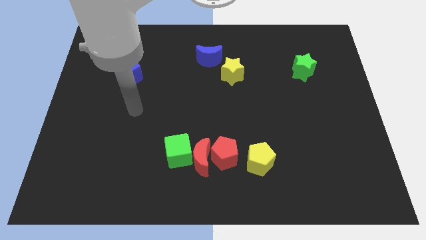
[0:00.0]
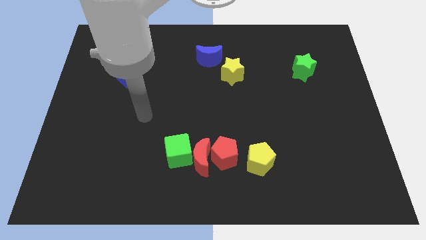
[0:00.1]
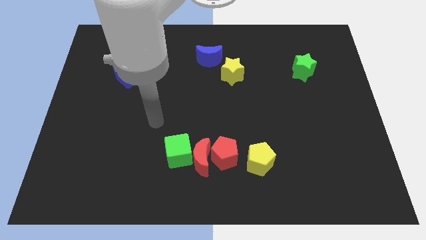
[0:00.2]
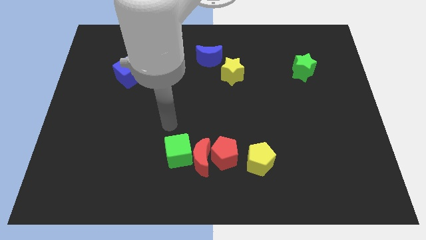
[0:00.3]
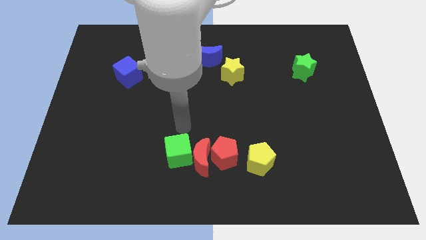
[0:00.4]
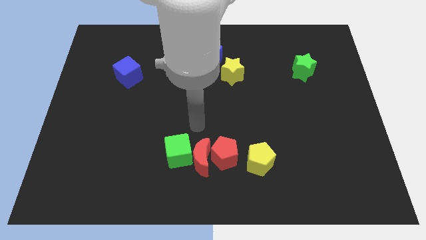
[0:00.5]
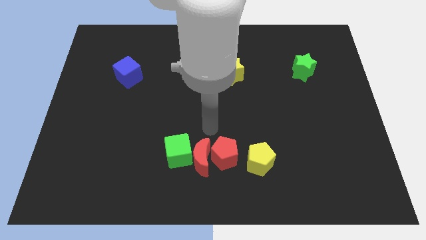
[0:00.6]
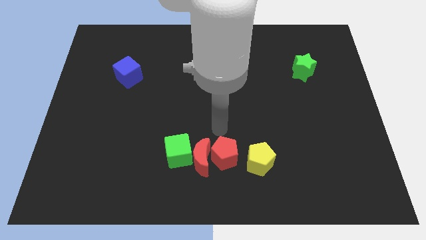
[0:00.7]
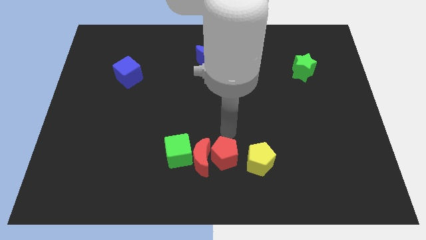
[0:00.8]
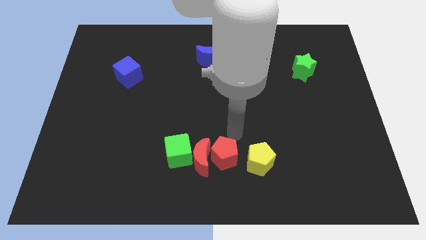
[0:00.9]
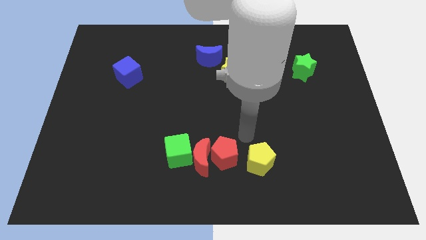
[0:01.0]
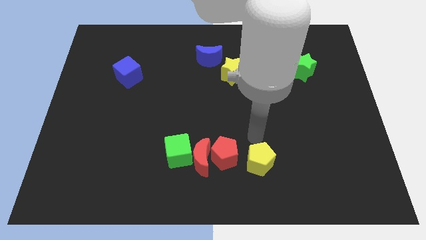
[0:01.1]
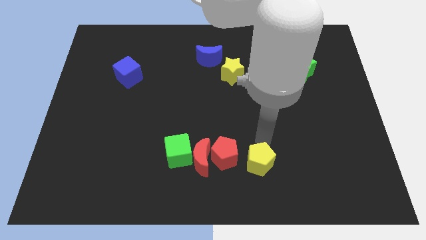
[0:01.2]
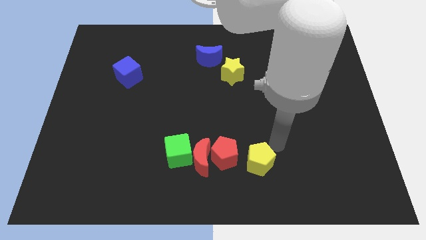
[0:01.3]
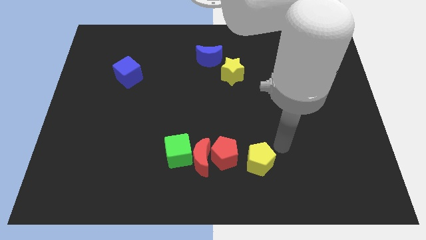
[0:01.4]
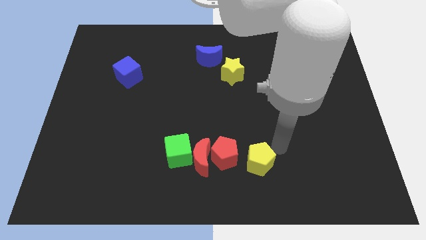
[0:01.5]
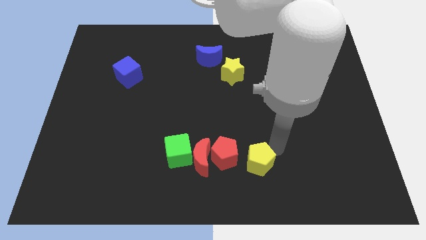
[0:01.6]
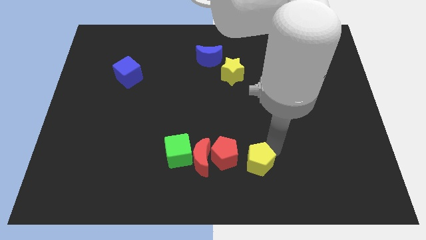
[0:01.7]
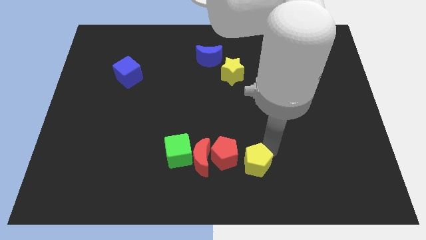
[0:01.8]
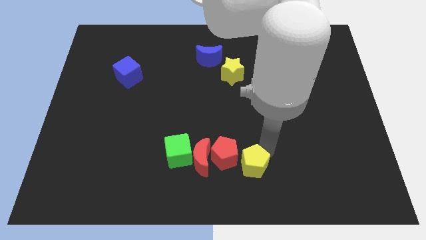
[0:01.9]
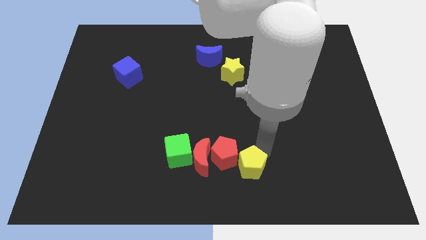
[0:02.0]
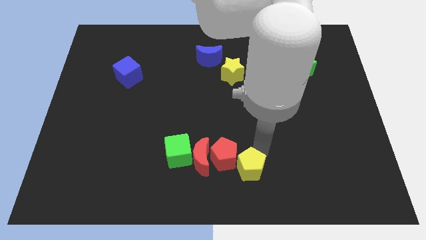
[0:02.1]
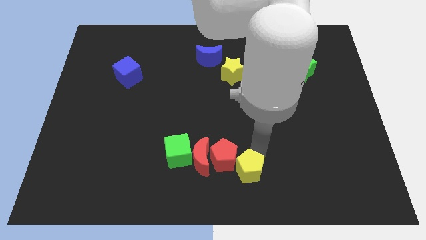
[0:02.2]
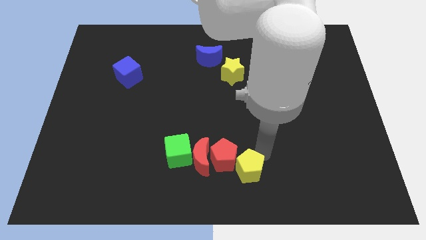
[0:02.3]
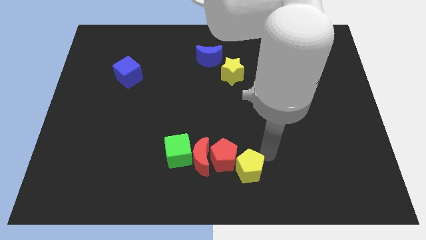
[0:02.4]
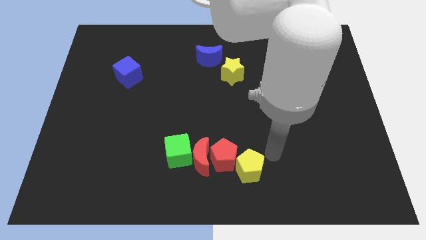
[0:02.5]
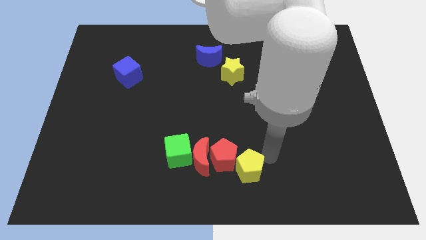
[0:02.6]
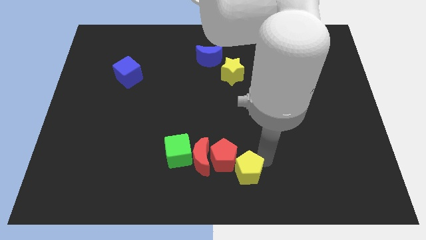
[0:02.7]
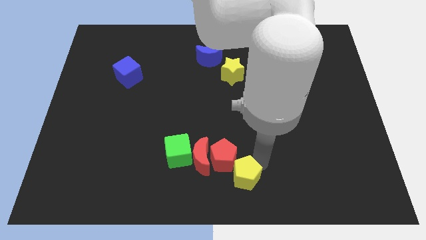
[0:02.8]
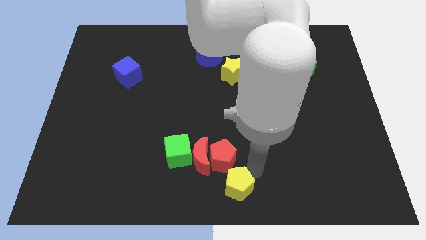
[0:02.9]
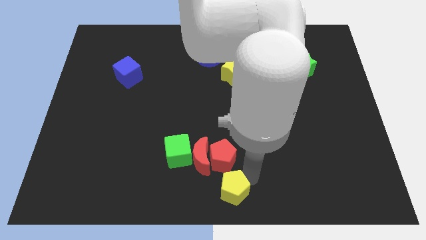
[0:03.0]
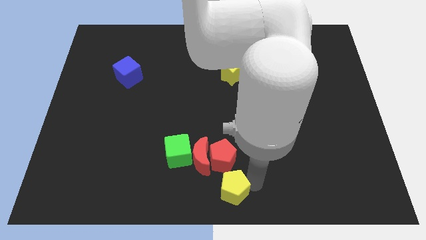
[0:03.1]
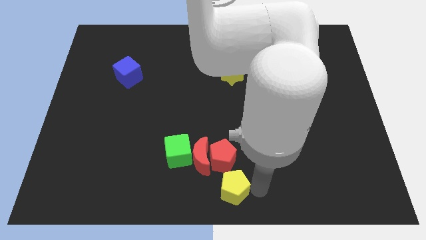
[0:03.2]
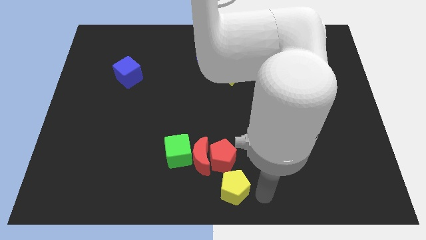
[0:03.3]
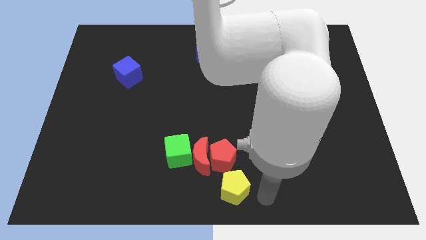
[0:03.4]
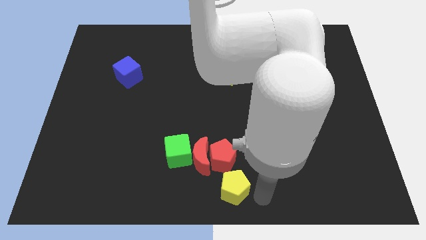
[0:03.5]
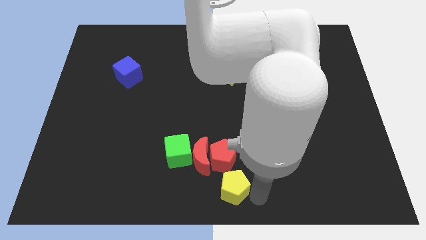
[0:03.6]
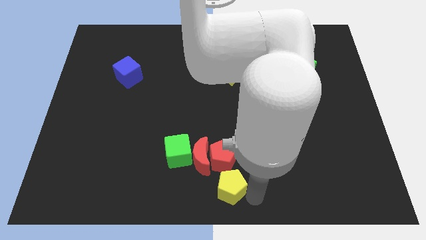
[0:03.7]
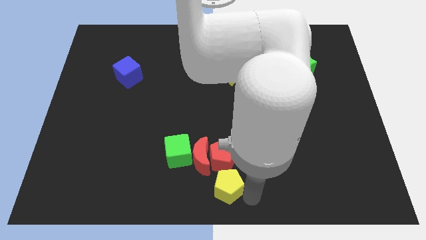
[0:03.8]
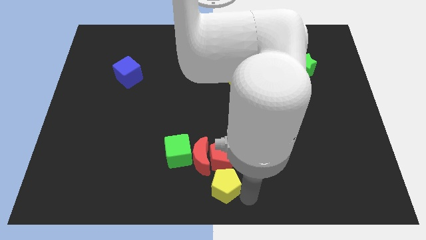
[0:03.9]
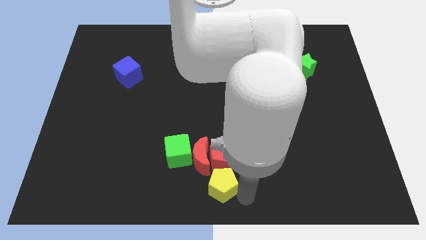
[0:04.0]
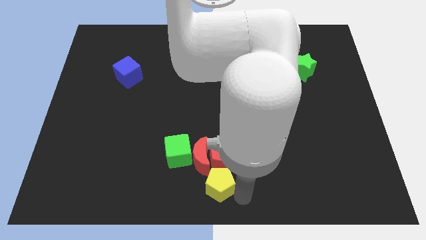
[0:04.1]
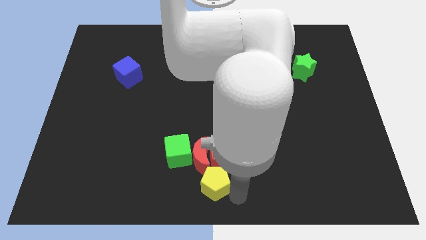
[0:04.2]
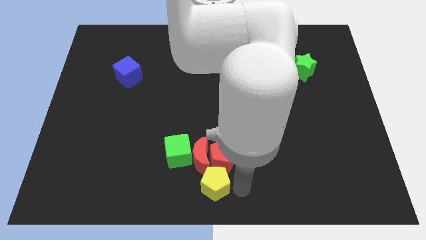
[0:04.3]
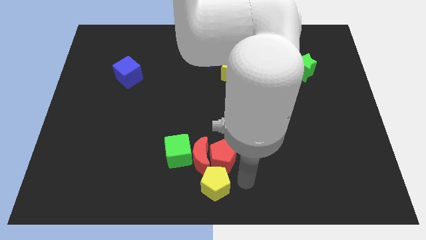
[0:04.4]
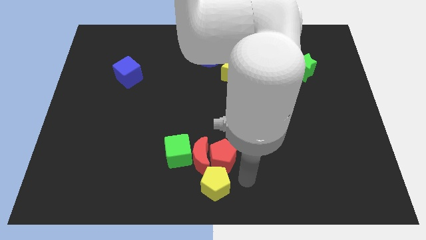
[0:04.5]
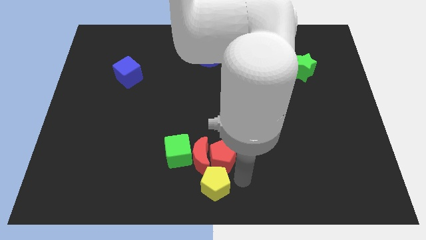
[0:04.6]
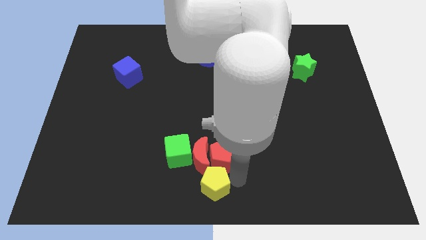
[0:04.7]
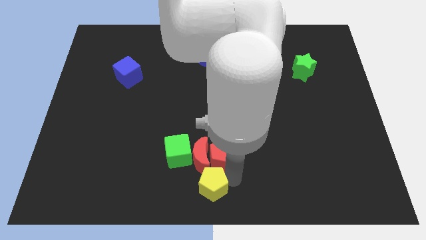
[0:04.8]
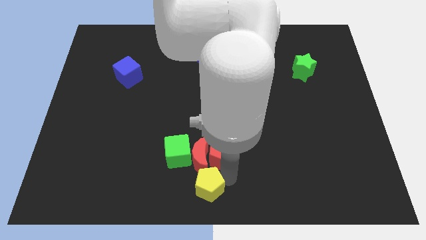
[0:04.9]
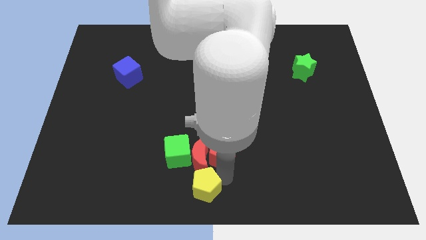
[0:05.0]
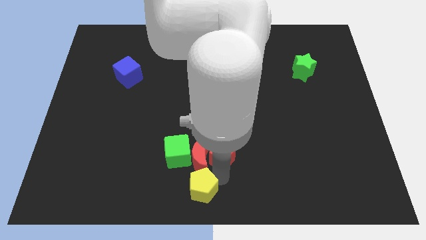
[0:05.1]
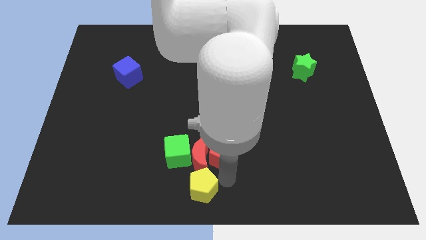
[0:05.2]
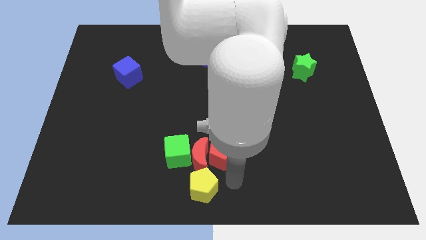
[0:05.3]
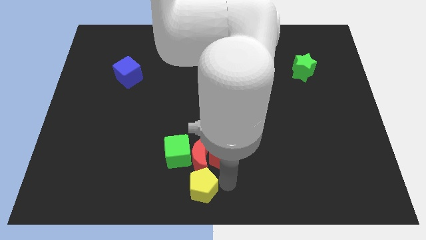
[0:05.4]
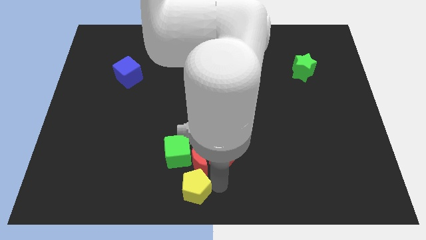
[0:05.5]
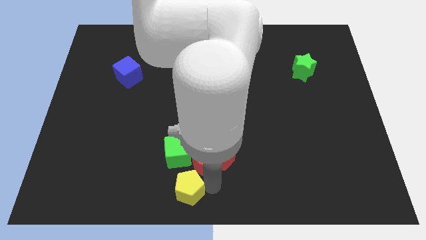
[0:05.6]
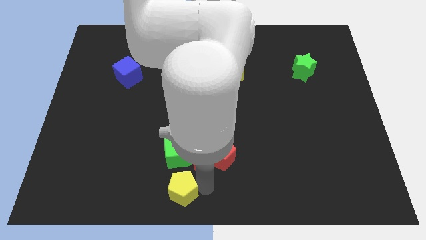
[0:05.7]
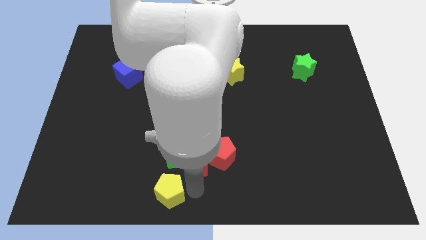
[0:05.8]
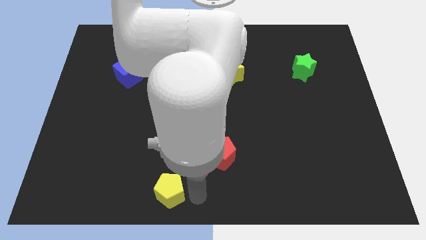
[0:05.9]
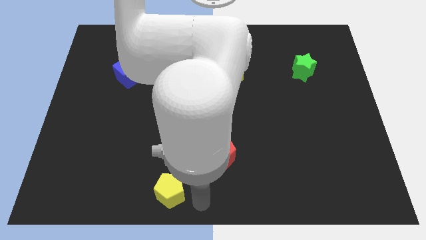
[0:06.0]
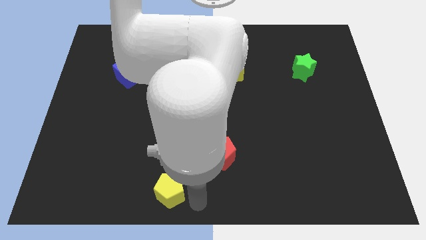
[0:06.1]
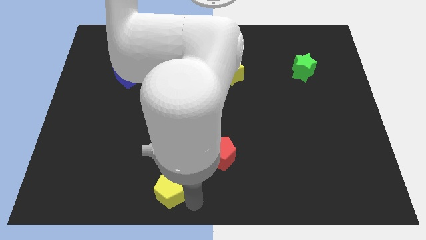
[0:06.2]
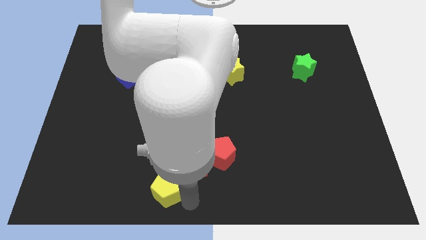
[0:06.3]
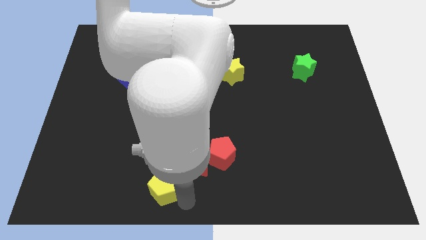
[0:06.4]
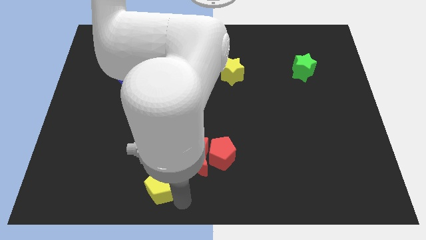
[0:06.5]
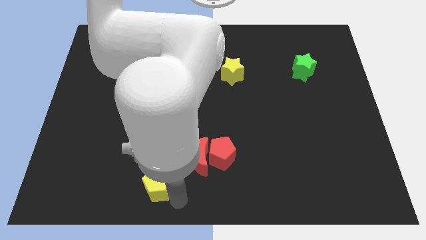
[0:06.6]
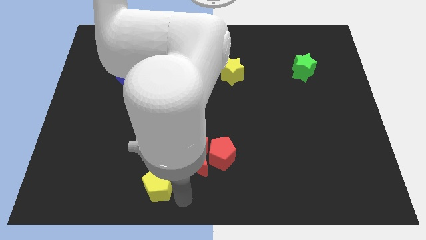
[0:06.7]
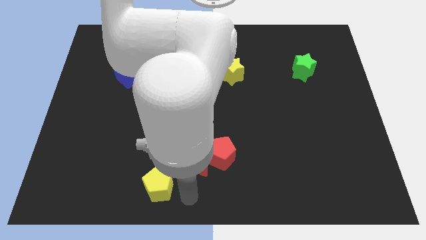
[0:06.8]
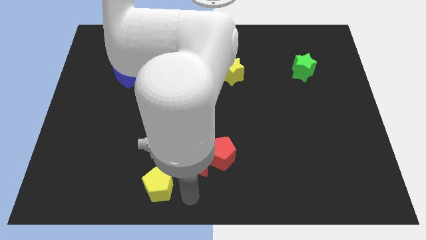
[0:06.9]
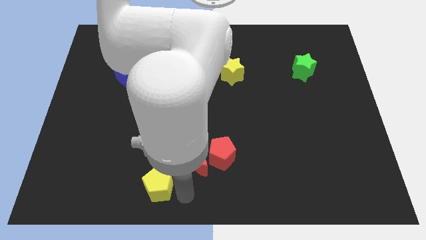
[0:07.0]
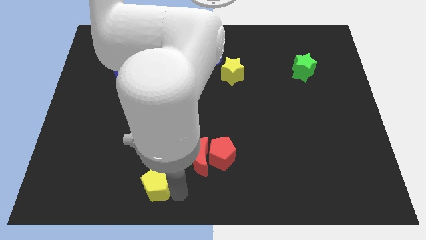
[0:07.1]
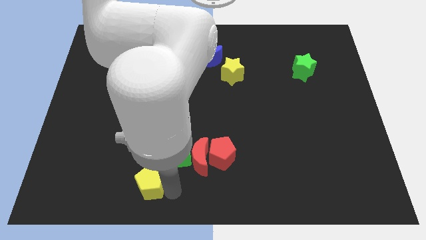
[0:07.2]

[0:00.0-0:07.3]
slide the yellow pentagon left

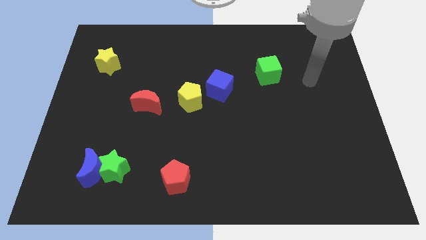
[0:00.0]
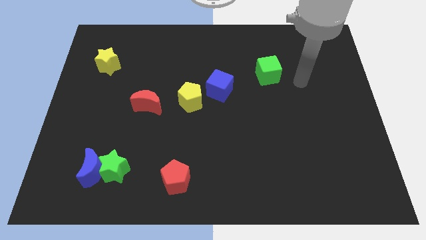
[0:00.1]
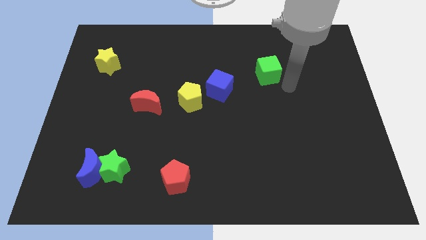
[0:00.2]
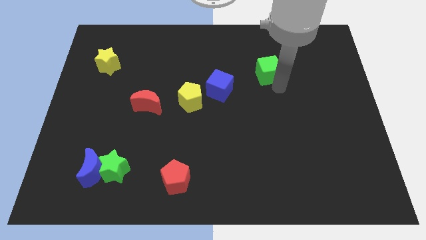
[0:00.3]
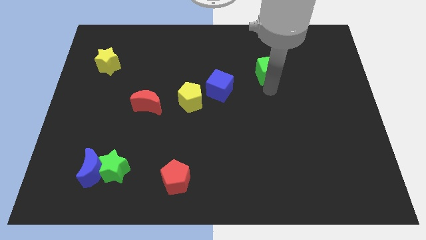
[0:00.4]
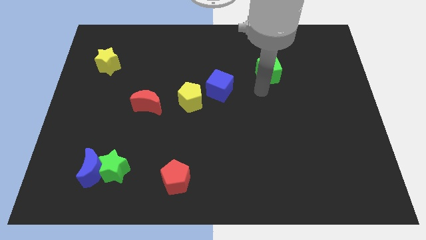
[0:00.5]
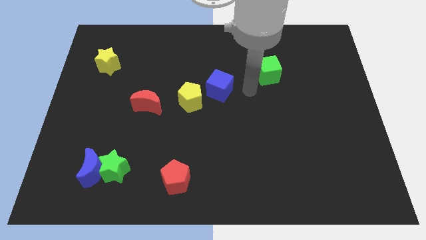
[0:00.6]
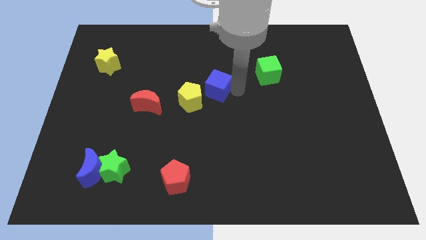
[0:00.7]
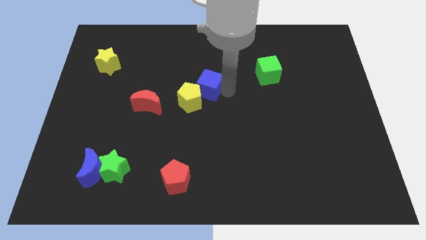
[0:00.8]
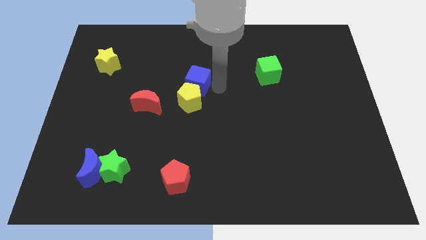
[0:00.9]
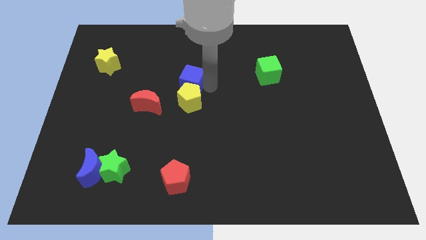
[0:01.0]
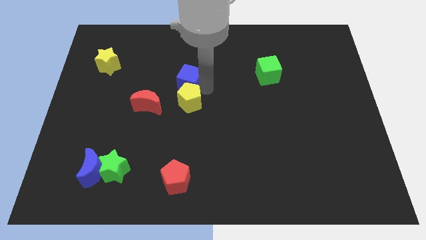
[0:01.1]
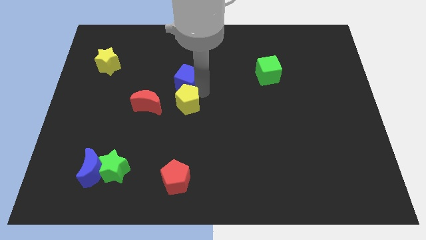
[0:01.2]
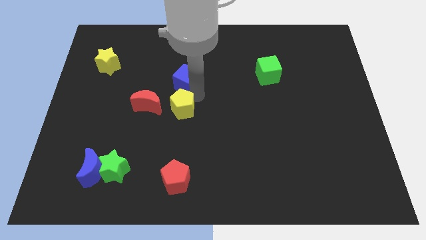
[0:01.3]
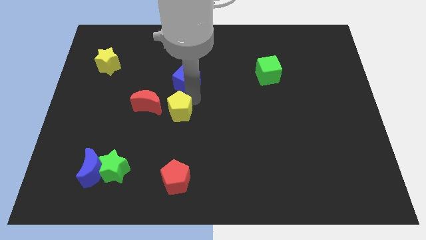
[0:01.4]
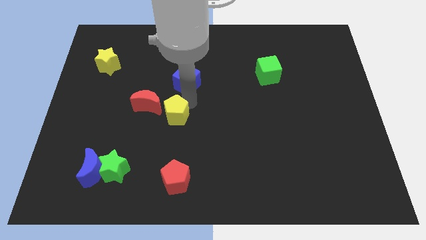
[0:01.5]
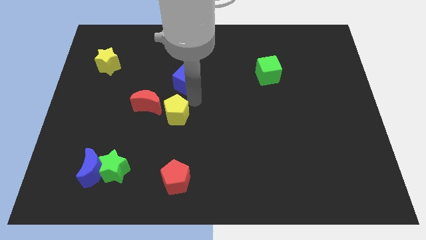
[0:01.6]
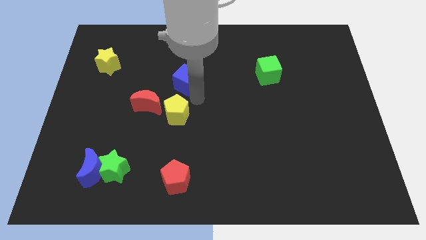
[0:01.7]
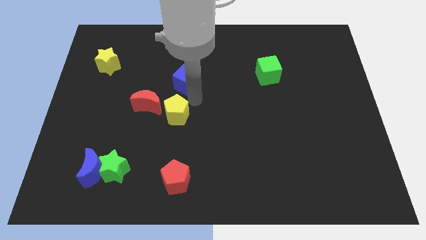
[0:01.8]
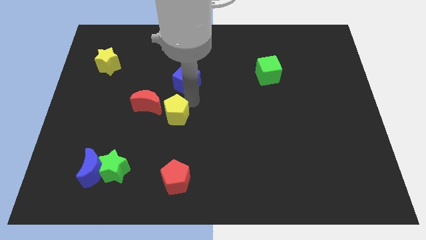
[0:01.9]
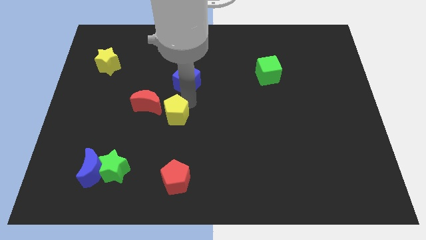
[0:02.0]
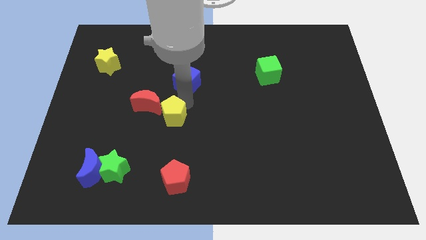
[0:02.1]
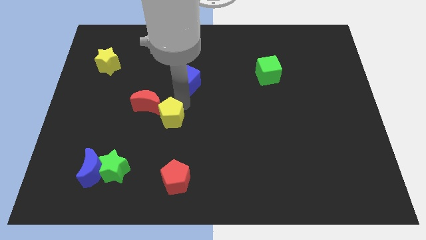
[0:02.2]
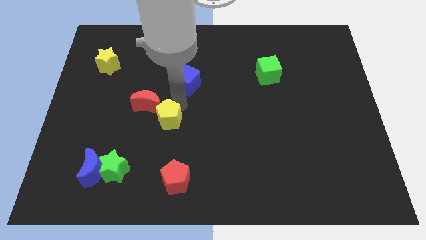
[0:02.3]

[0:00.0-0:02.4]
slightly move the yellow pentagon downwards and then to the left
